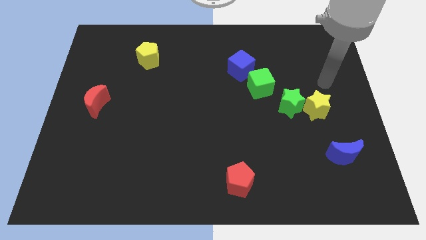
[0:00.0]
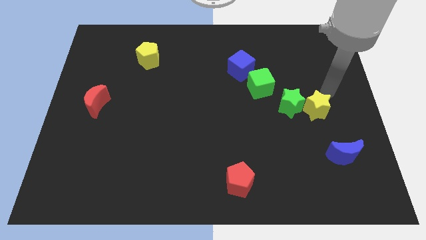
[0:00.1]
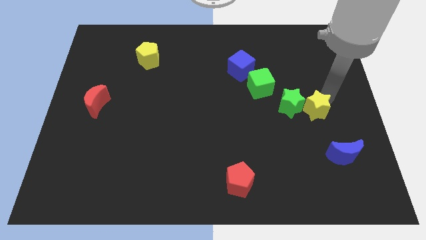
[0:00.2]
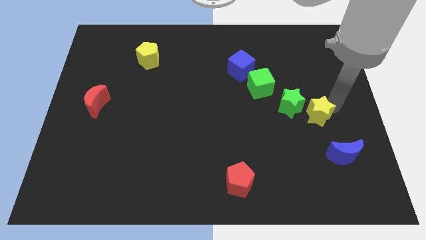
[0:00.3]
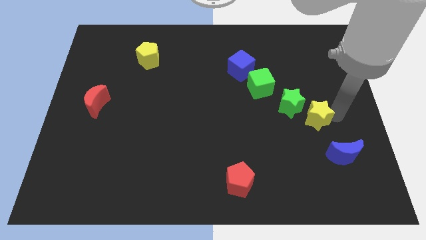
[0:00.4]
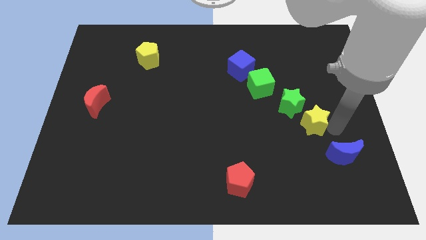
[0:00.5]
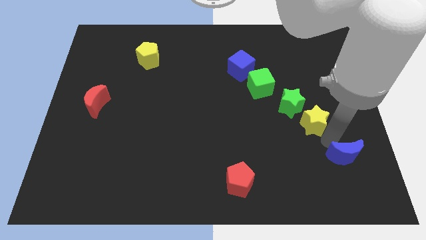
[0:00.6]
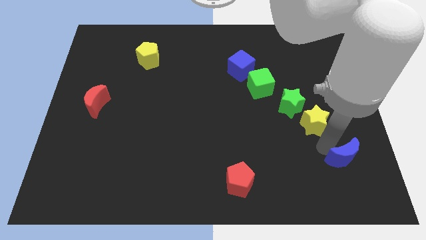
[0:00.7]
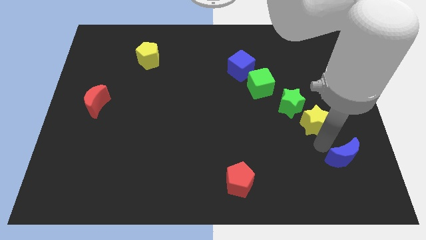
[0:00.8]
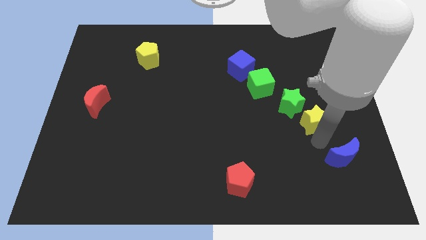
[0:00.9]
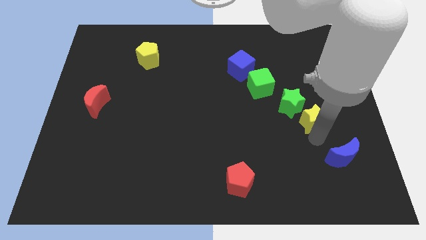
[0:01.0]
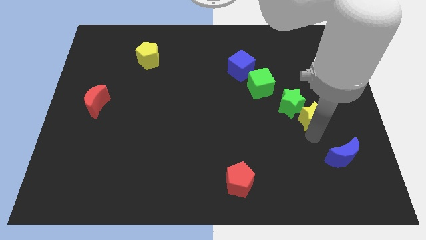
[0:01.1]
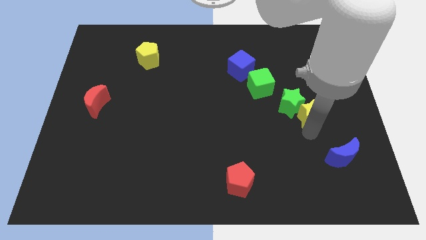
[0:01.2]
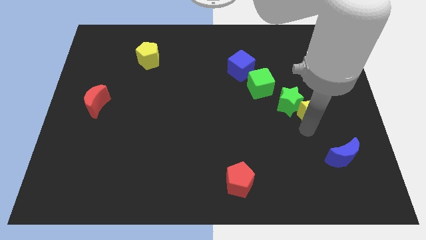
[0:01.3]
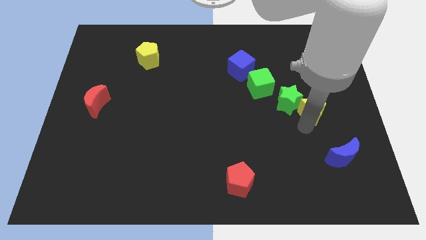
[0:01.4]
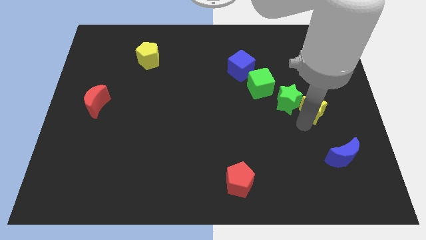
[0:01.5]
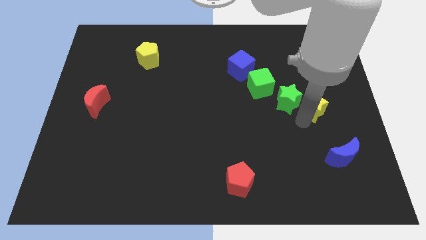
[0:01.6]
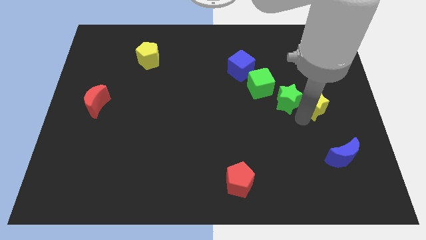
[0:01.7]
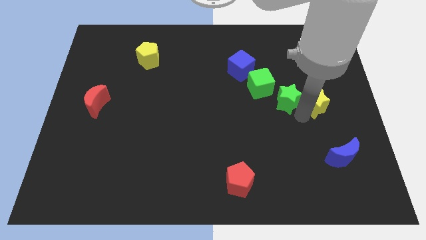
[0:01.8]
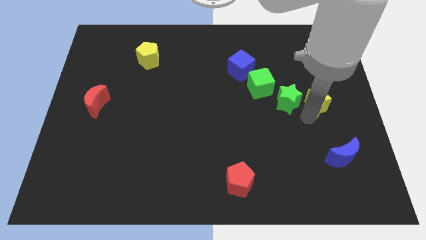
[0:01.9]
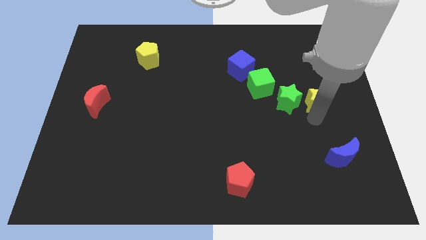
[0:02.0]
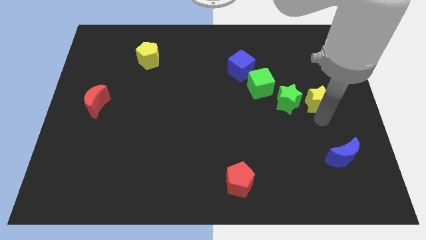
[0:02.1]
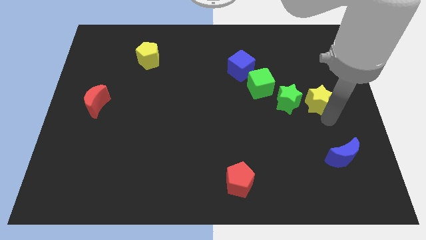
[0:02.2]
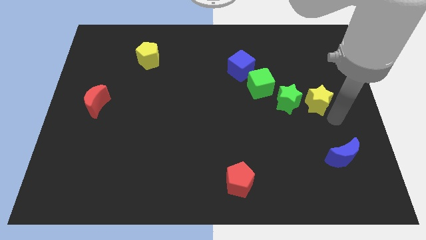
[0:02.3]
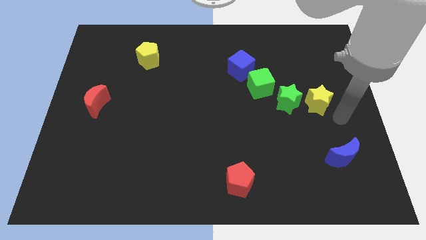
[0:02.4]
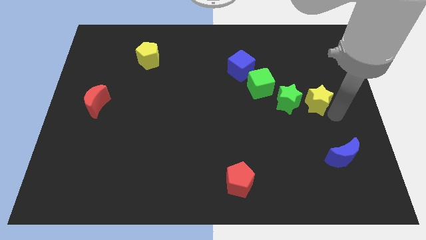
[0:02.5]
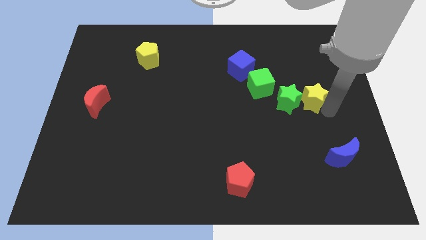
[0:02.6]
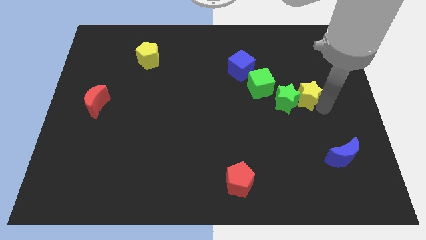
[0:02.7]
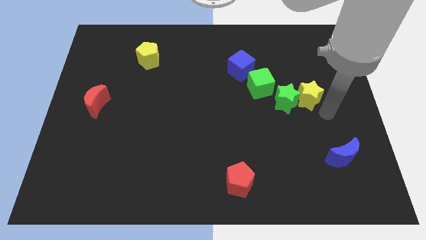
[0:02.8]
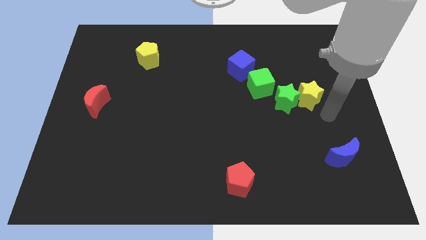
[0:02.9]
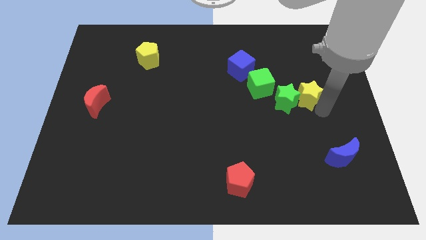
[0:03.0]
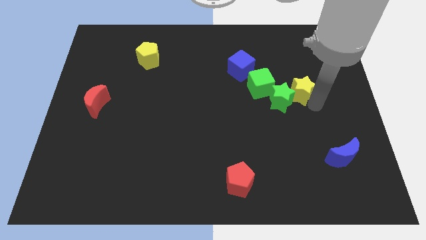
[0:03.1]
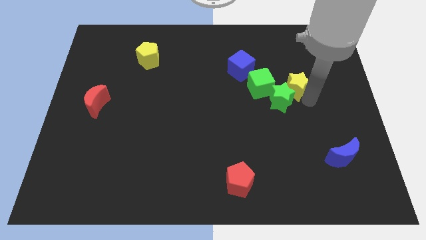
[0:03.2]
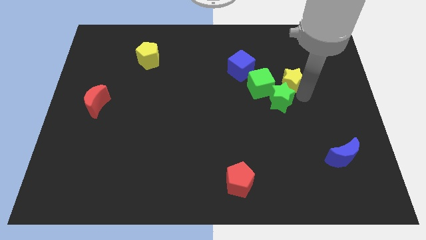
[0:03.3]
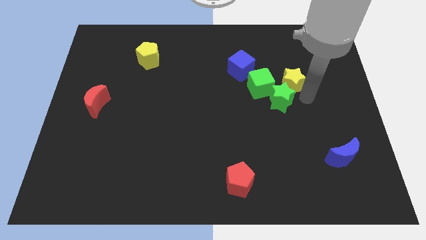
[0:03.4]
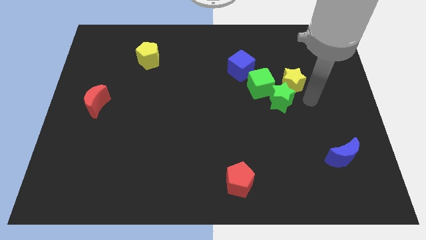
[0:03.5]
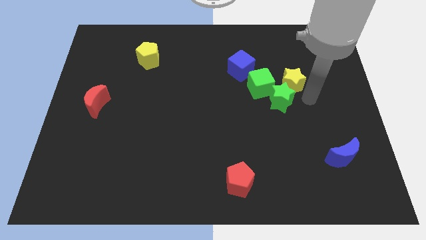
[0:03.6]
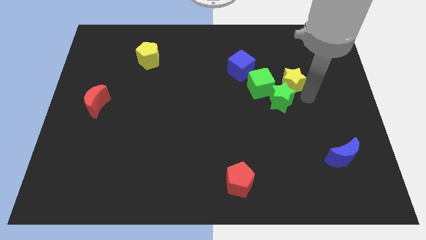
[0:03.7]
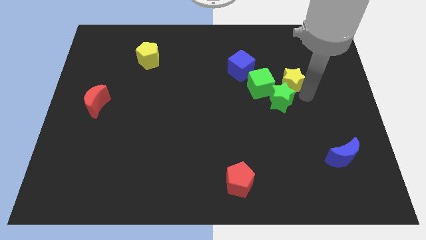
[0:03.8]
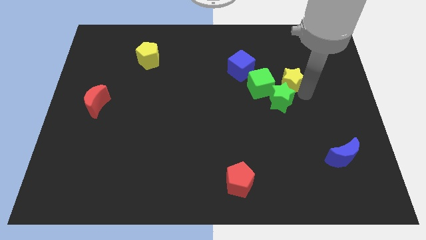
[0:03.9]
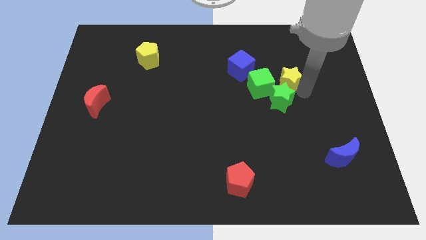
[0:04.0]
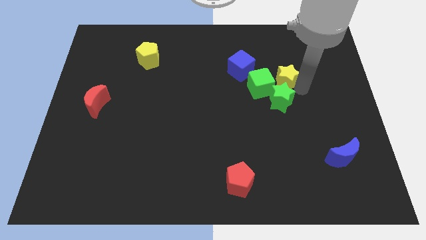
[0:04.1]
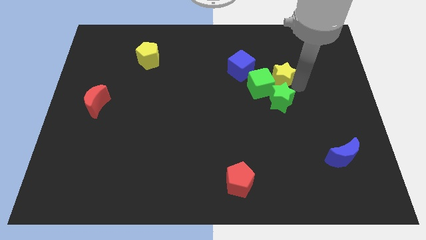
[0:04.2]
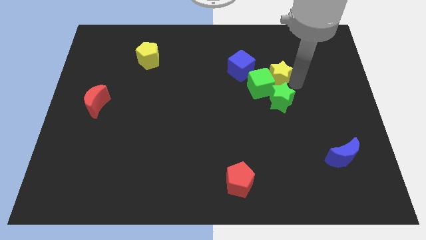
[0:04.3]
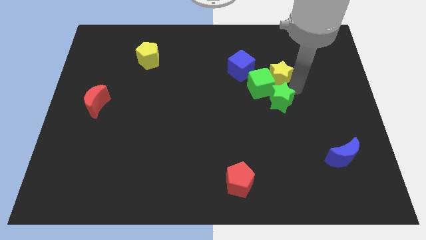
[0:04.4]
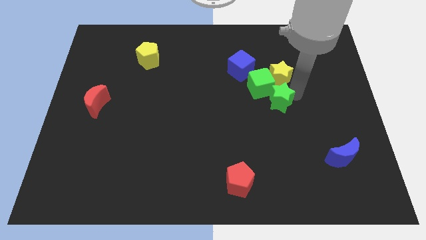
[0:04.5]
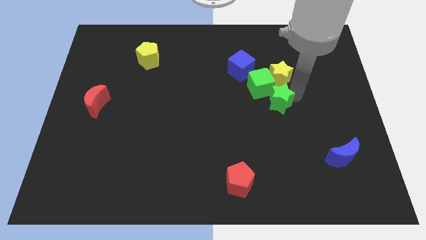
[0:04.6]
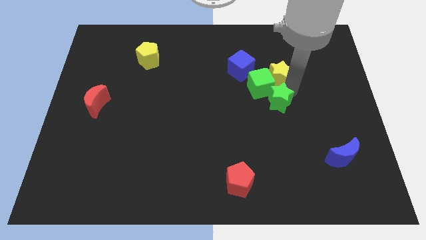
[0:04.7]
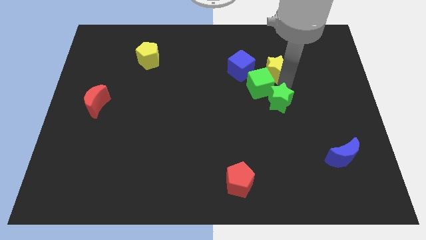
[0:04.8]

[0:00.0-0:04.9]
slide the yellow star above the green cube

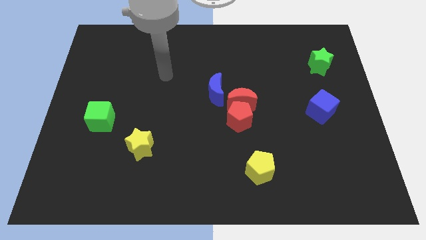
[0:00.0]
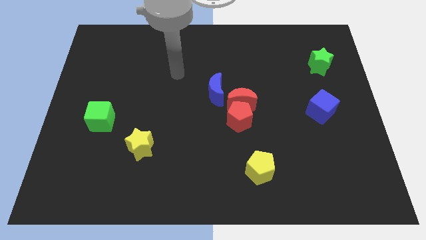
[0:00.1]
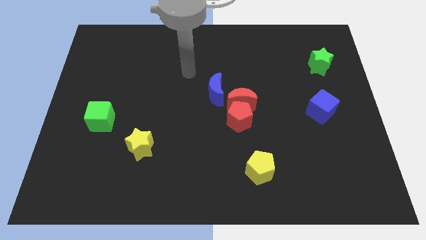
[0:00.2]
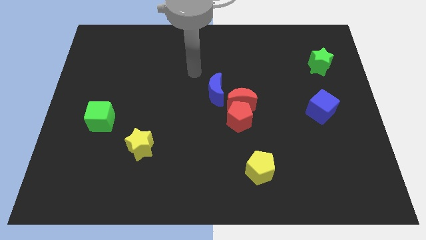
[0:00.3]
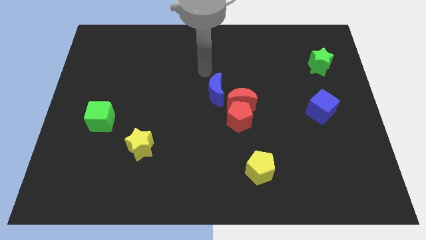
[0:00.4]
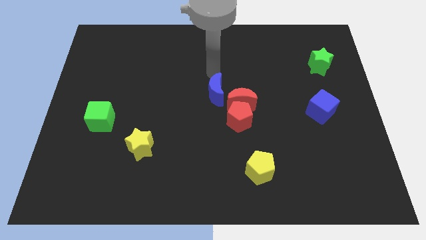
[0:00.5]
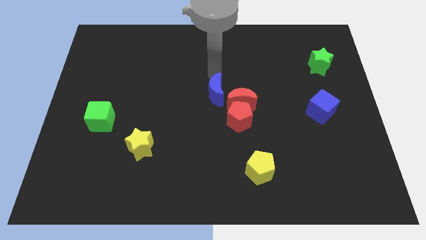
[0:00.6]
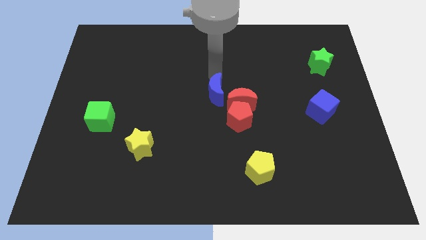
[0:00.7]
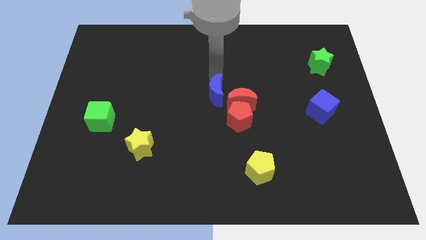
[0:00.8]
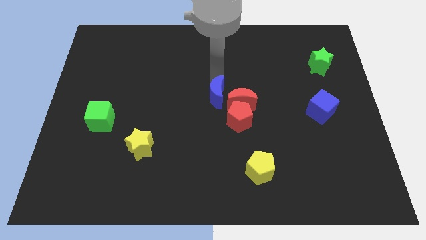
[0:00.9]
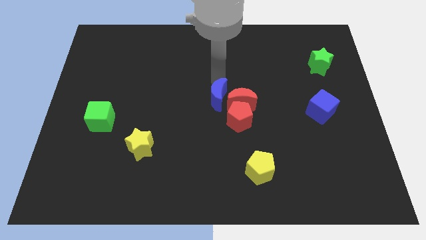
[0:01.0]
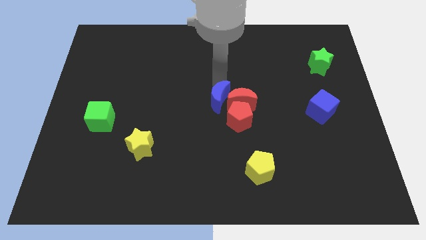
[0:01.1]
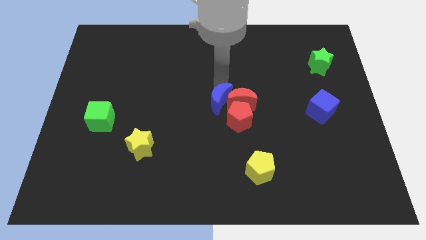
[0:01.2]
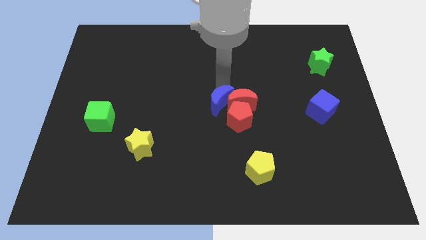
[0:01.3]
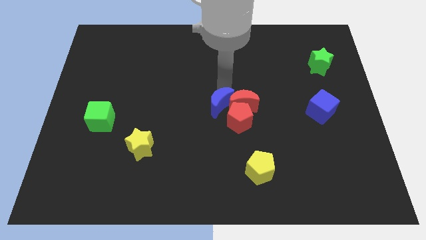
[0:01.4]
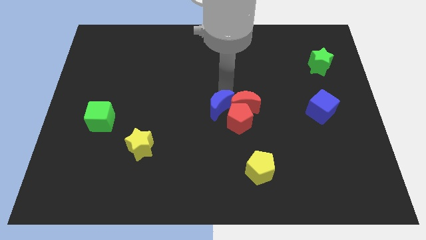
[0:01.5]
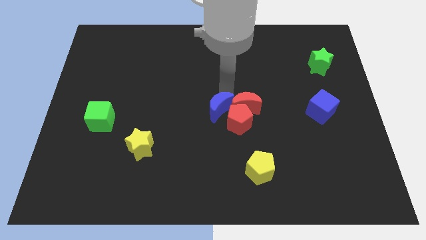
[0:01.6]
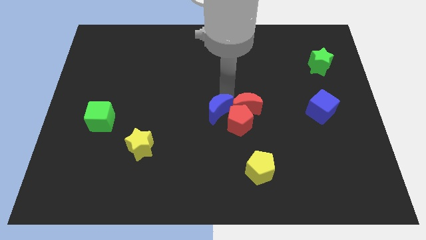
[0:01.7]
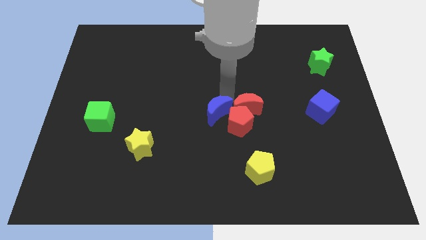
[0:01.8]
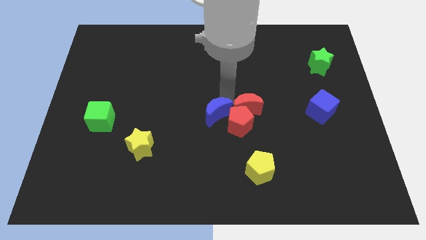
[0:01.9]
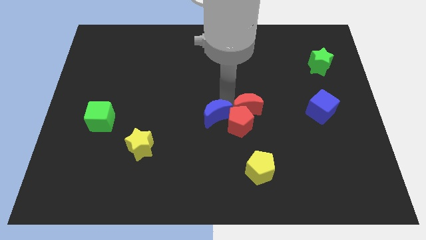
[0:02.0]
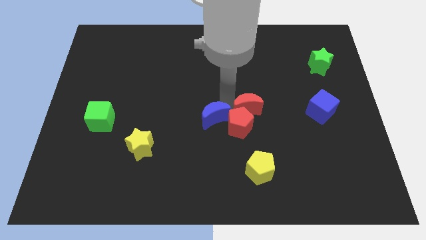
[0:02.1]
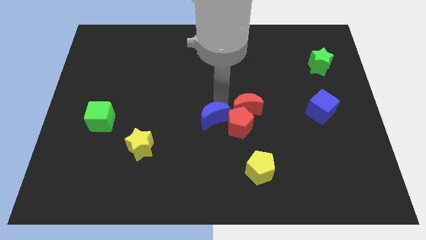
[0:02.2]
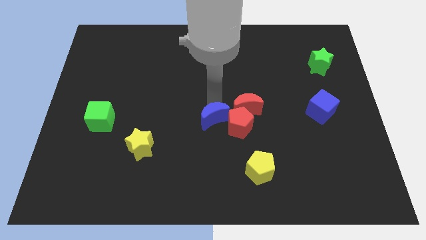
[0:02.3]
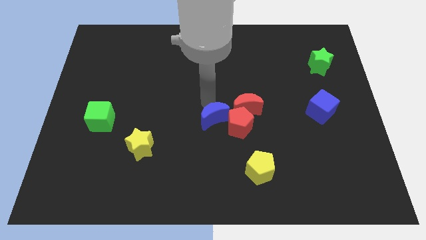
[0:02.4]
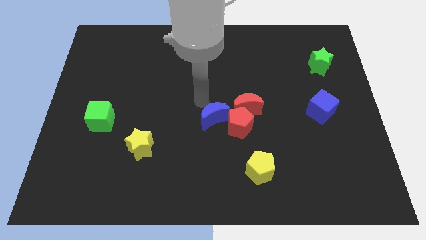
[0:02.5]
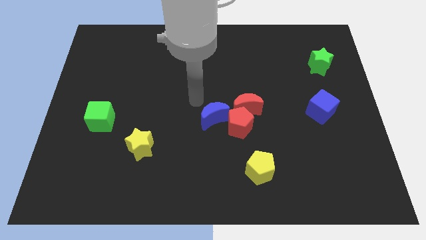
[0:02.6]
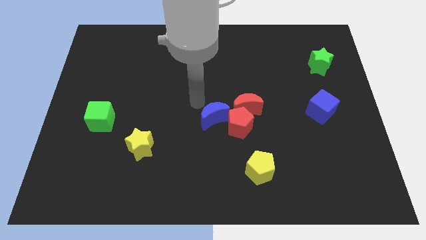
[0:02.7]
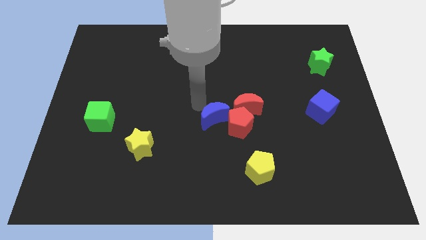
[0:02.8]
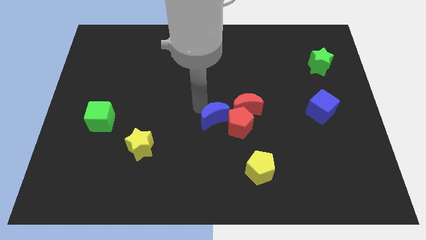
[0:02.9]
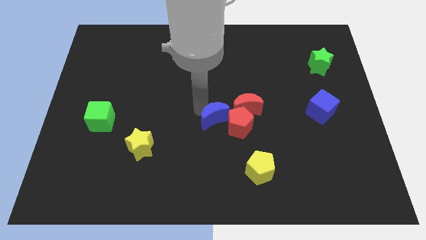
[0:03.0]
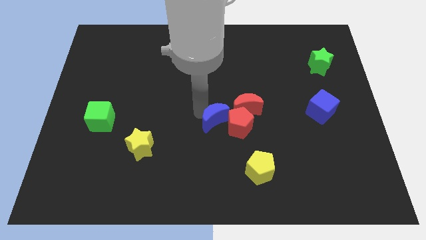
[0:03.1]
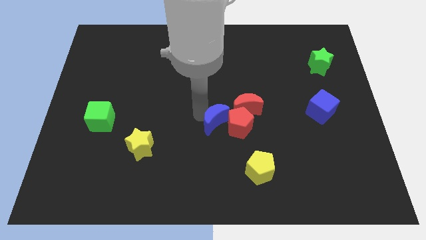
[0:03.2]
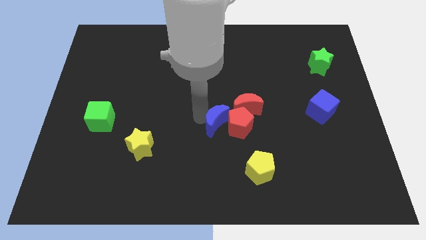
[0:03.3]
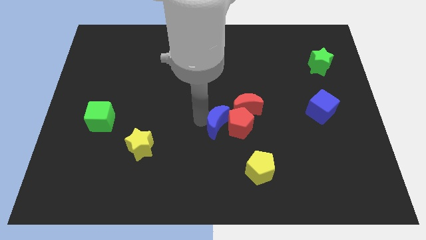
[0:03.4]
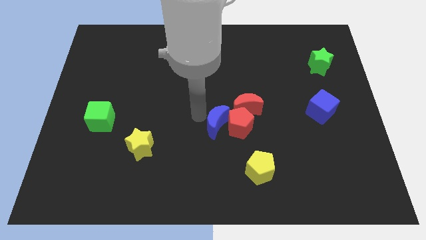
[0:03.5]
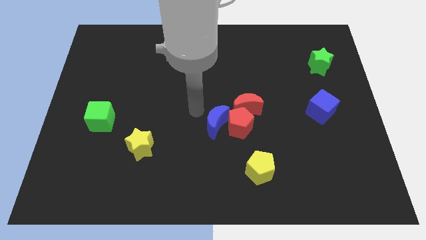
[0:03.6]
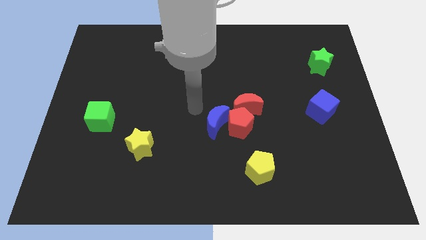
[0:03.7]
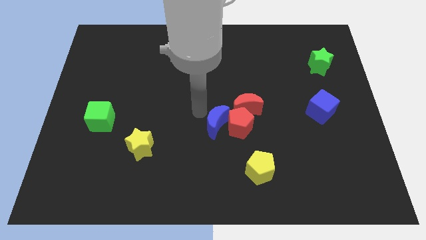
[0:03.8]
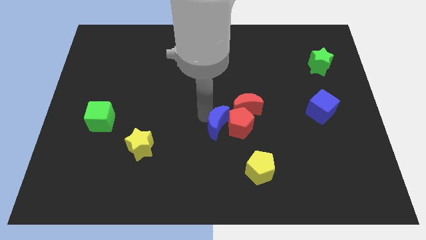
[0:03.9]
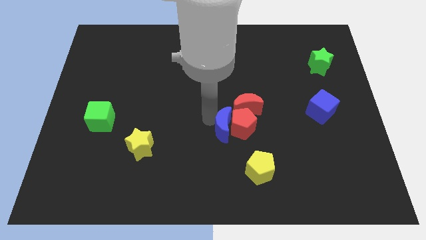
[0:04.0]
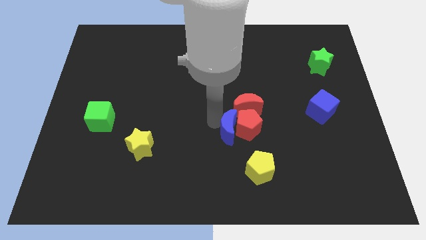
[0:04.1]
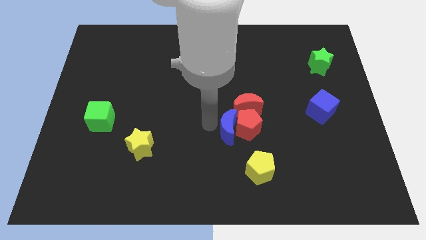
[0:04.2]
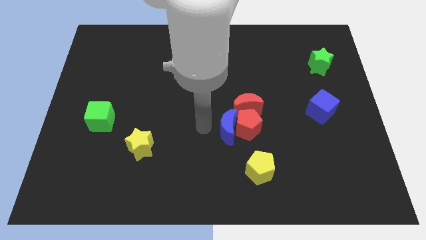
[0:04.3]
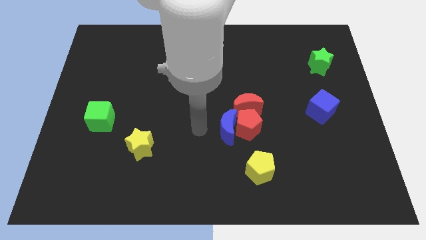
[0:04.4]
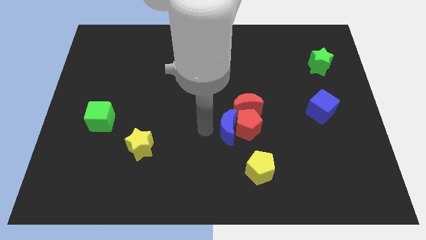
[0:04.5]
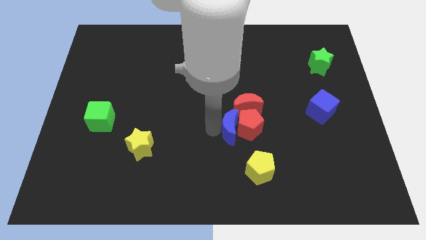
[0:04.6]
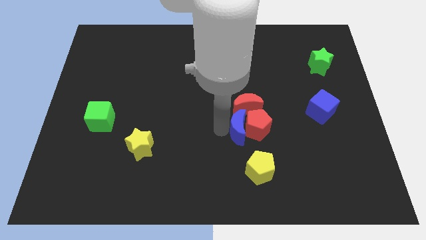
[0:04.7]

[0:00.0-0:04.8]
slide the blue moon to the top of the yellow pentagon
